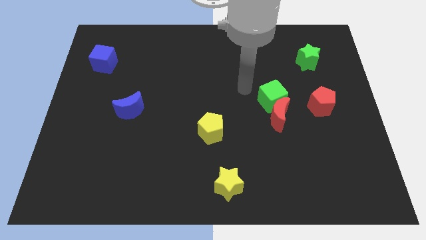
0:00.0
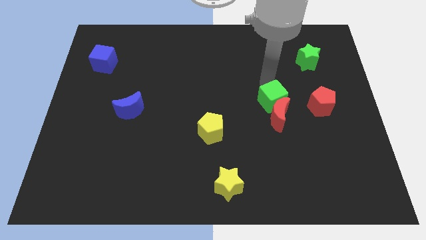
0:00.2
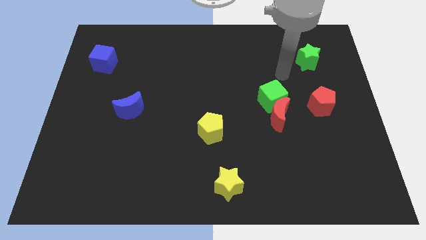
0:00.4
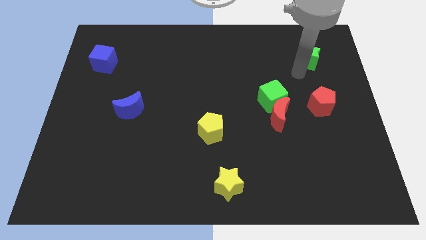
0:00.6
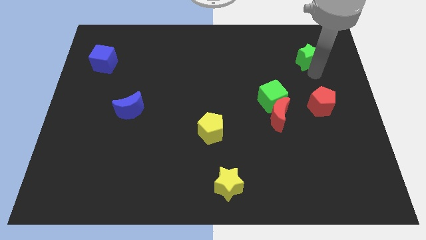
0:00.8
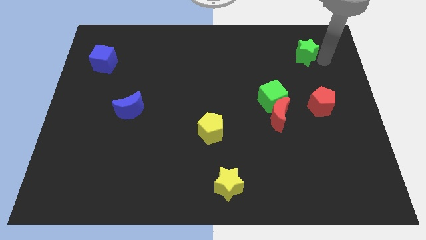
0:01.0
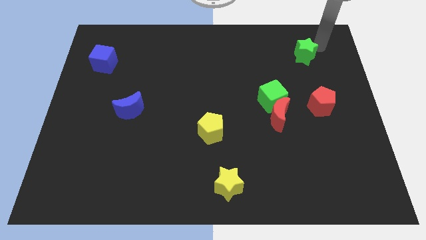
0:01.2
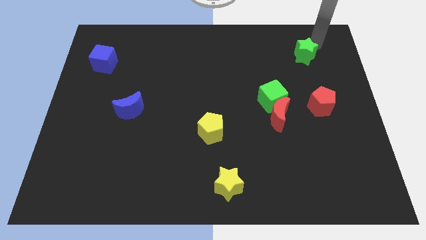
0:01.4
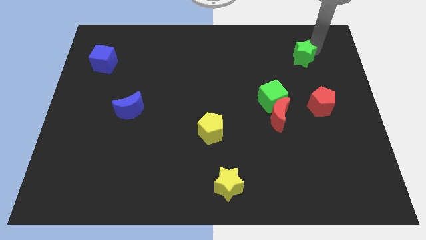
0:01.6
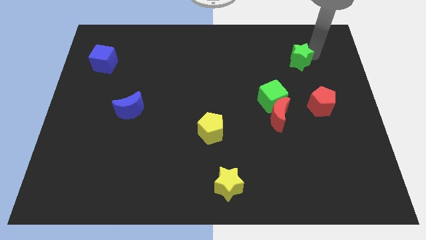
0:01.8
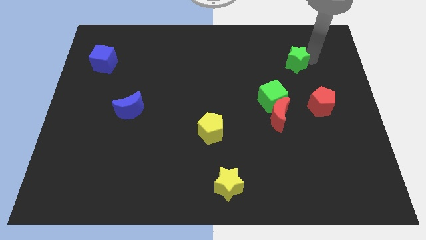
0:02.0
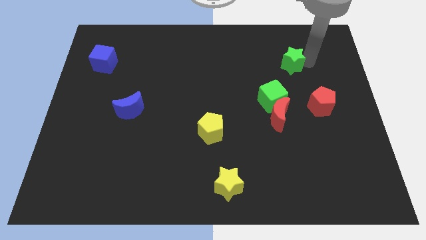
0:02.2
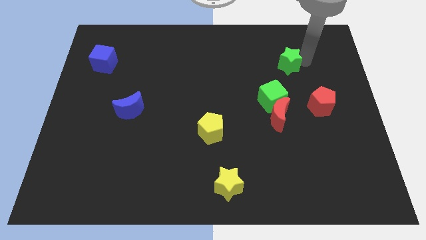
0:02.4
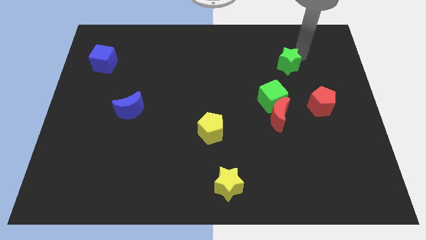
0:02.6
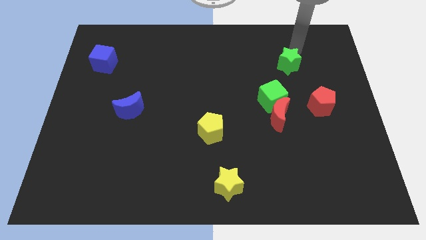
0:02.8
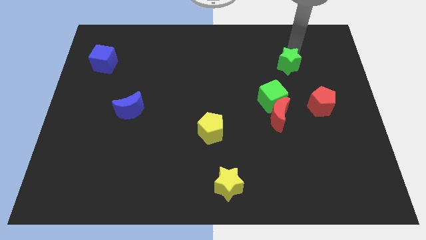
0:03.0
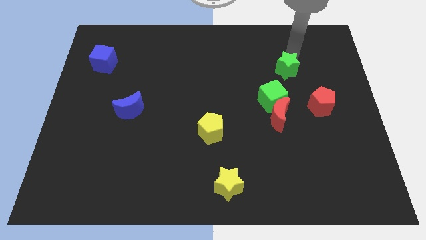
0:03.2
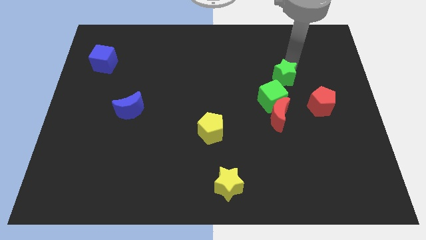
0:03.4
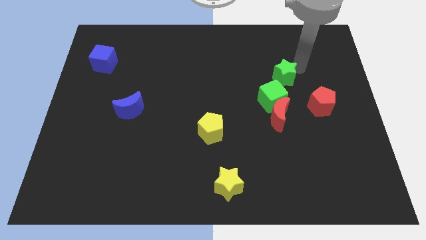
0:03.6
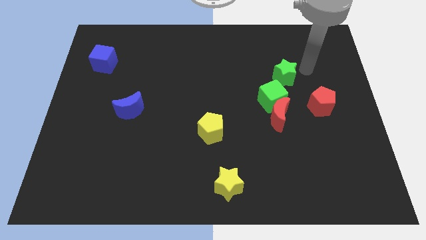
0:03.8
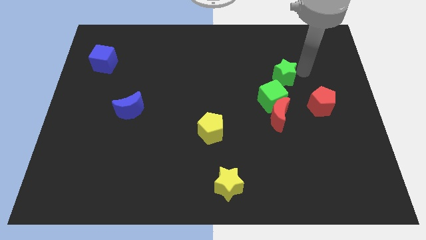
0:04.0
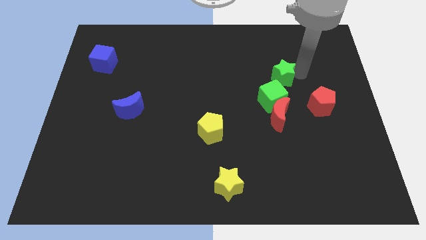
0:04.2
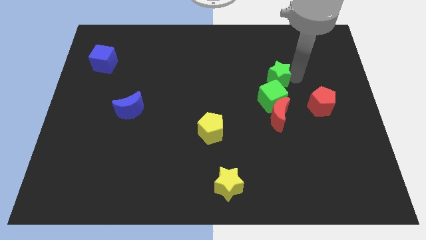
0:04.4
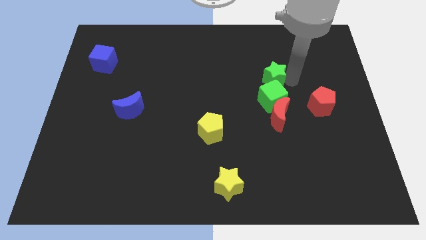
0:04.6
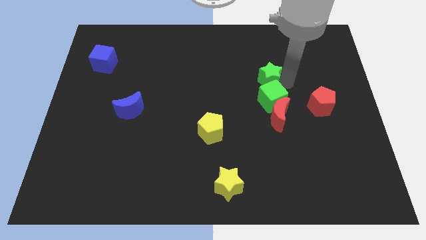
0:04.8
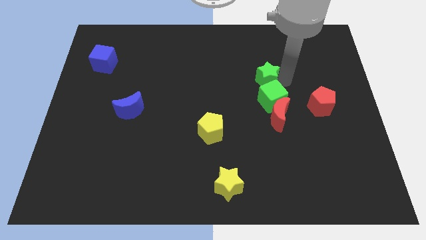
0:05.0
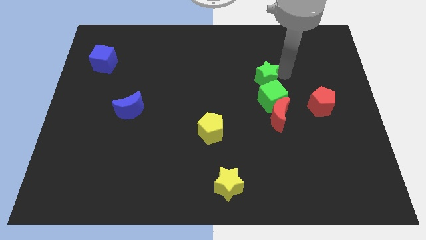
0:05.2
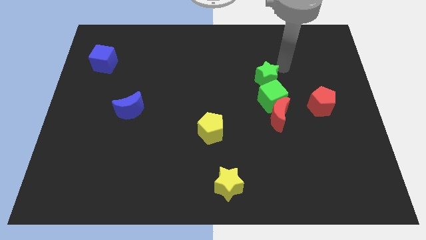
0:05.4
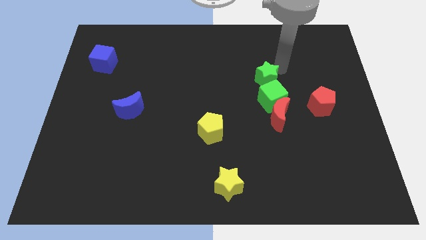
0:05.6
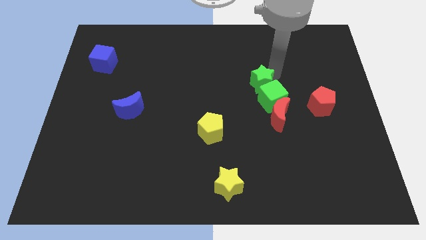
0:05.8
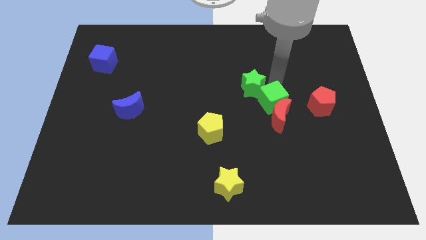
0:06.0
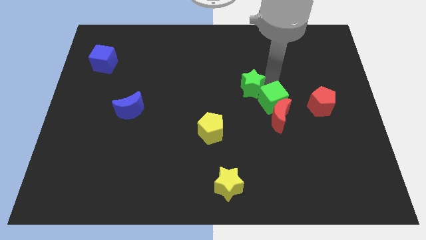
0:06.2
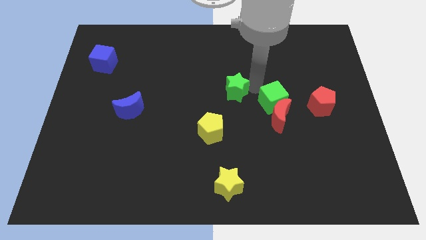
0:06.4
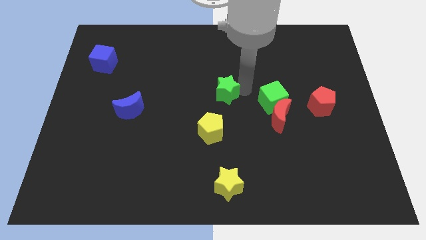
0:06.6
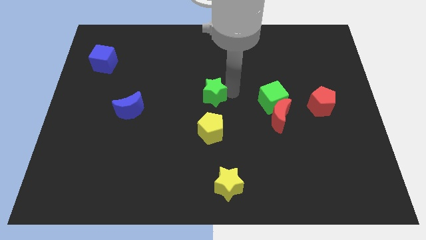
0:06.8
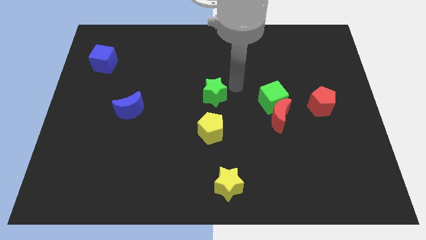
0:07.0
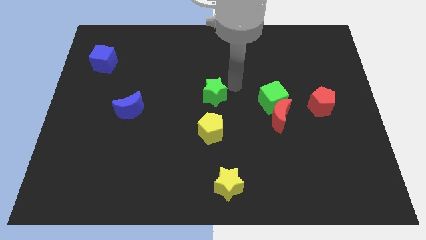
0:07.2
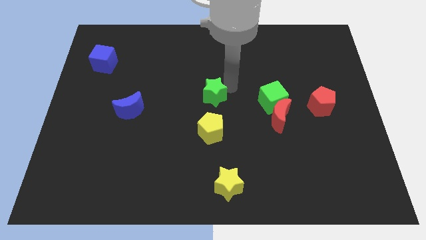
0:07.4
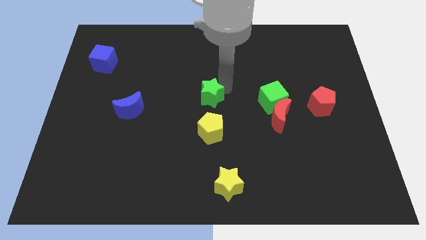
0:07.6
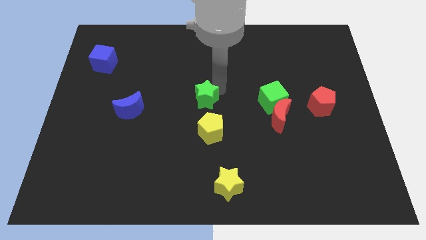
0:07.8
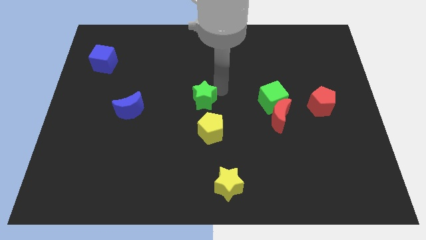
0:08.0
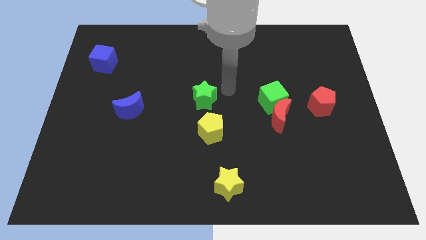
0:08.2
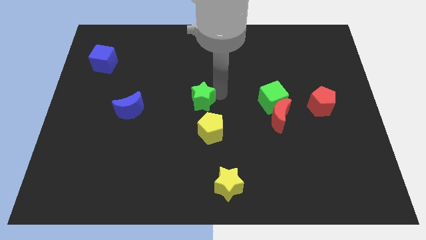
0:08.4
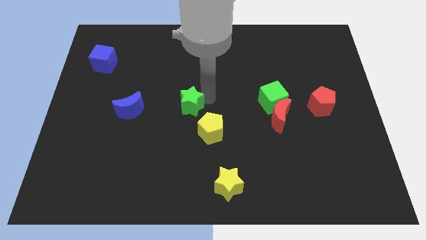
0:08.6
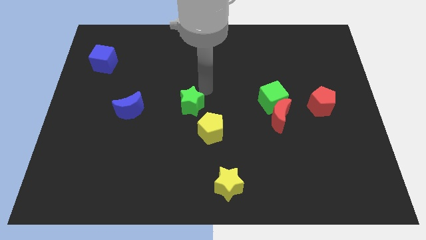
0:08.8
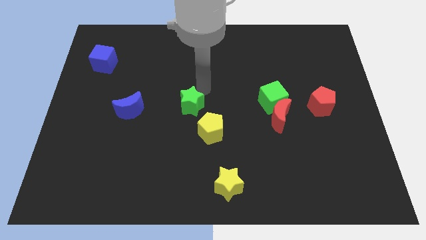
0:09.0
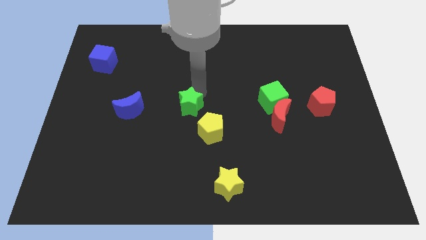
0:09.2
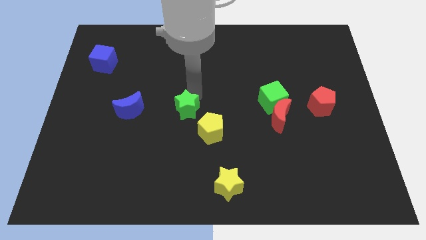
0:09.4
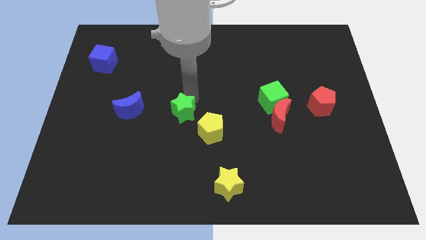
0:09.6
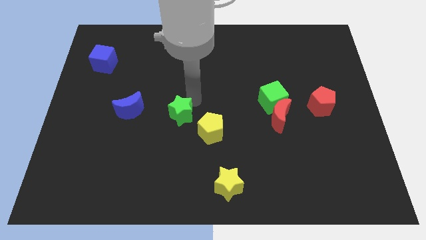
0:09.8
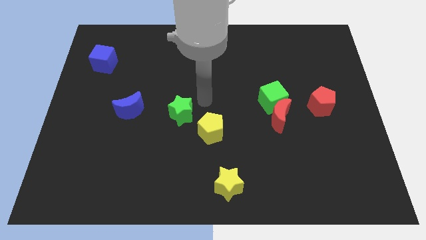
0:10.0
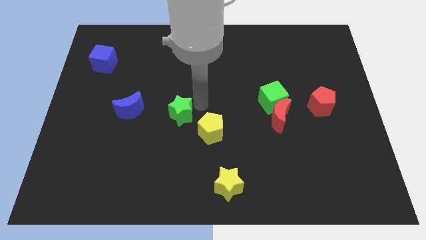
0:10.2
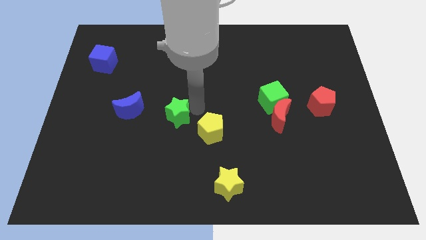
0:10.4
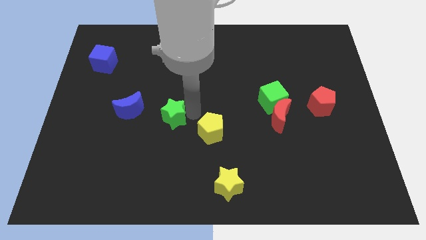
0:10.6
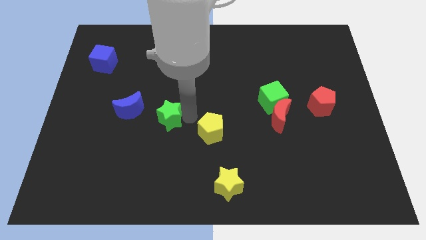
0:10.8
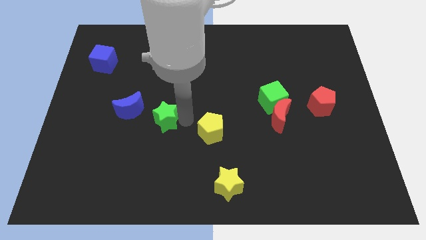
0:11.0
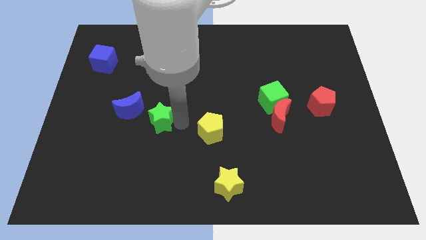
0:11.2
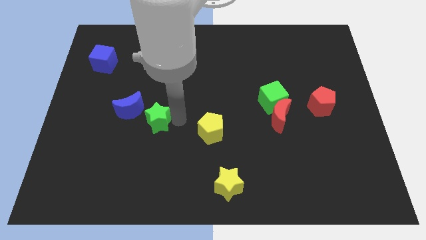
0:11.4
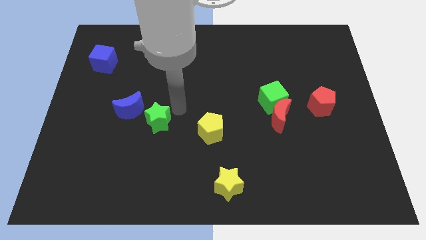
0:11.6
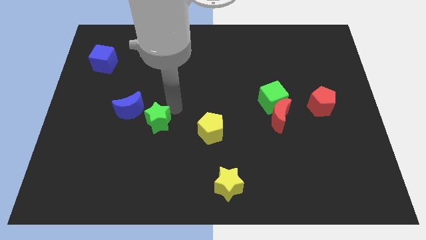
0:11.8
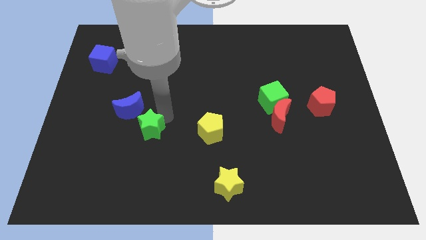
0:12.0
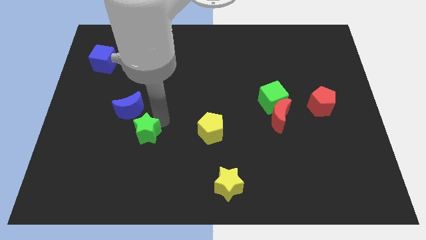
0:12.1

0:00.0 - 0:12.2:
push the green star to the bottom of the blue moon

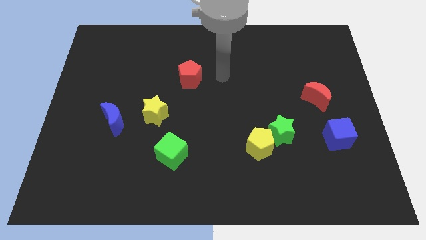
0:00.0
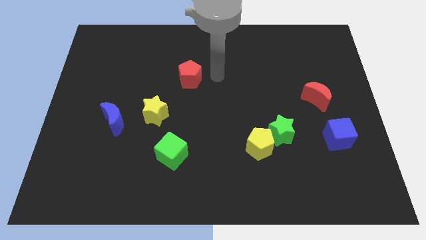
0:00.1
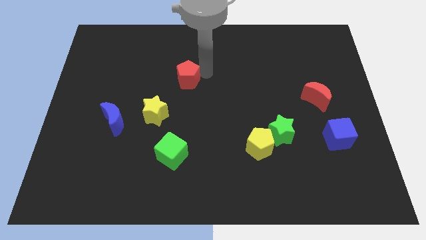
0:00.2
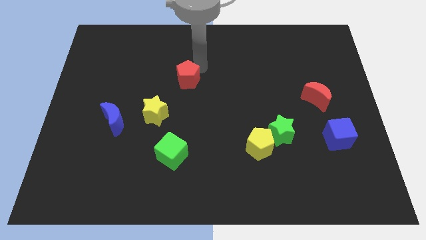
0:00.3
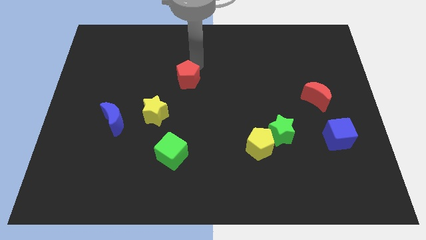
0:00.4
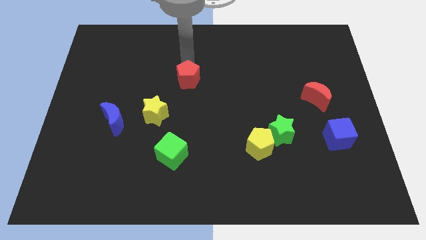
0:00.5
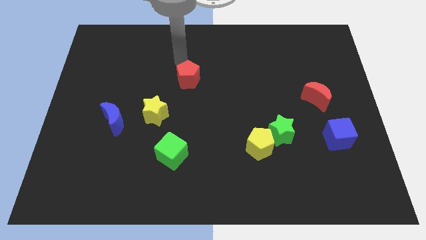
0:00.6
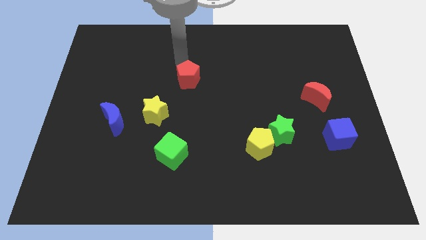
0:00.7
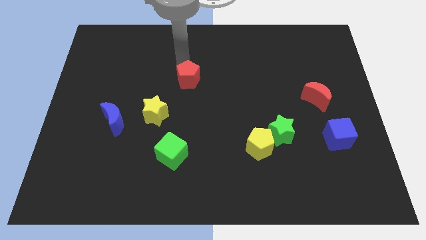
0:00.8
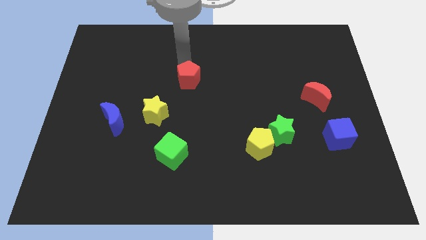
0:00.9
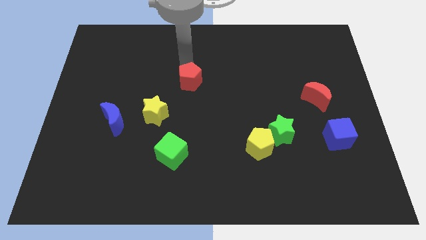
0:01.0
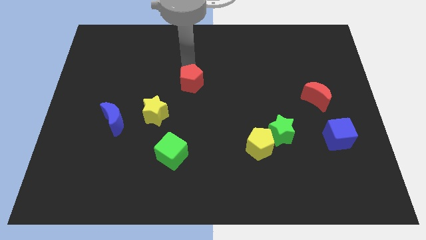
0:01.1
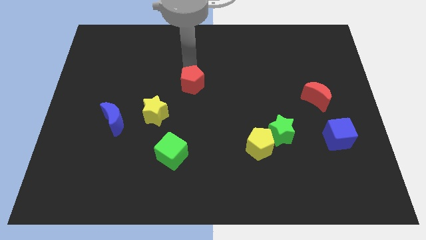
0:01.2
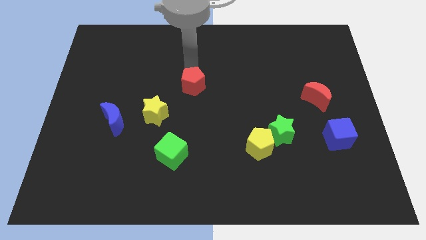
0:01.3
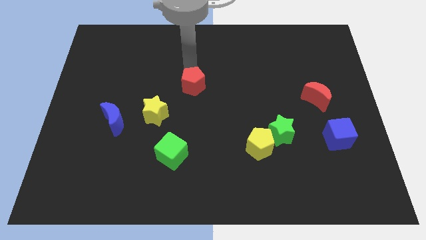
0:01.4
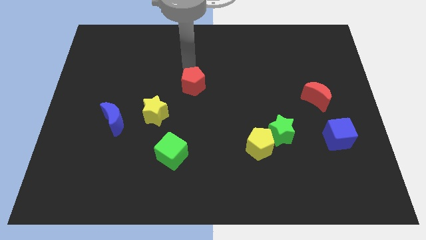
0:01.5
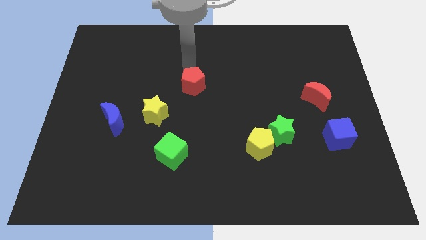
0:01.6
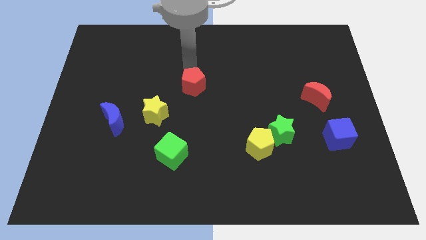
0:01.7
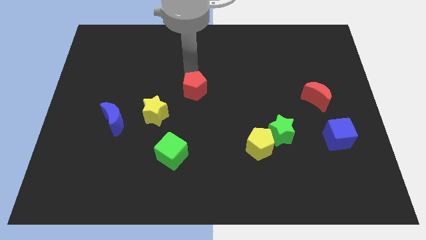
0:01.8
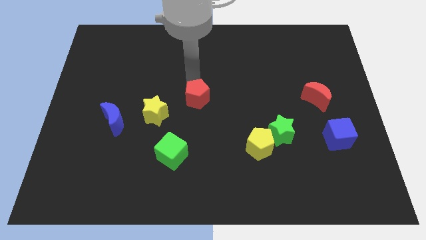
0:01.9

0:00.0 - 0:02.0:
slide the red pentagon to the right side of the yellow star
